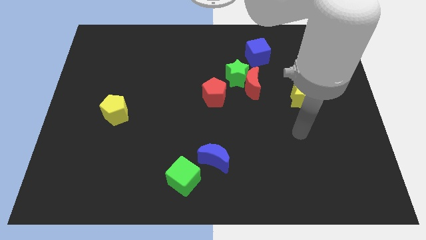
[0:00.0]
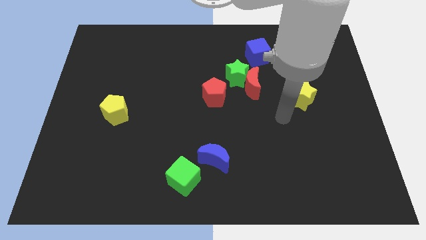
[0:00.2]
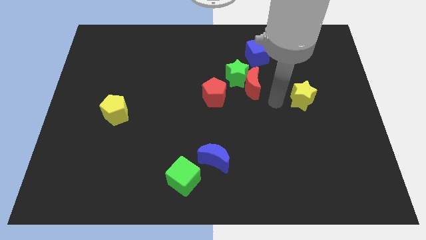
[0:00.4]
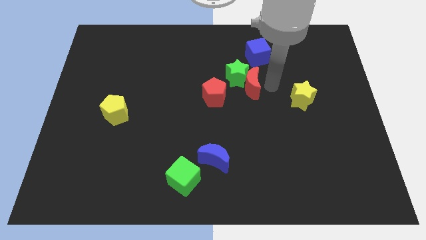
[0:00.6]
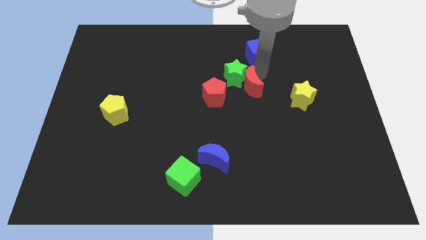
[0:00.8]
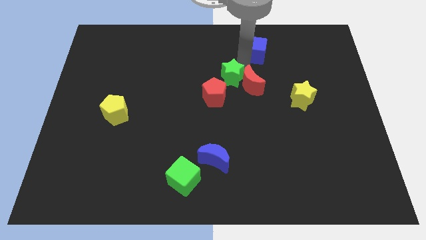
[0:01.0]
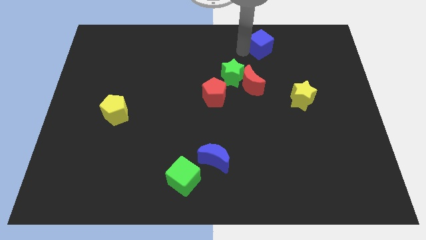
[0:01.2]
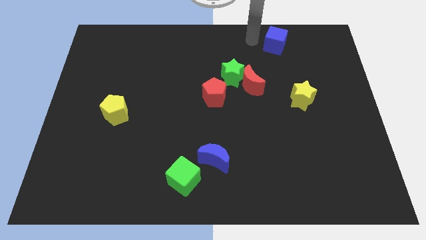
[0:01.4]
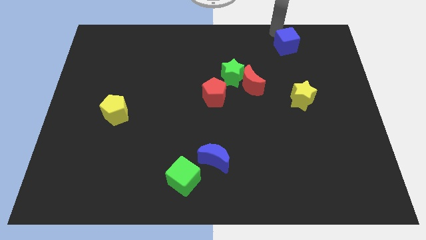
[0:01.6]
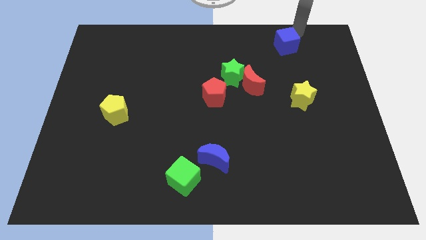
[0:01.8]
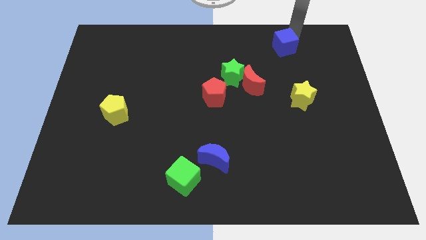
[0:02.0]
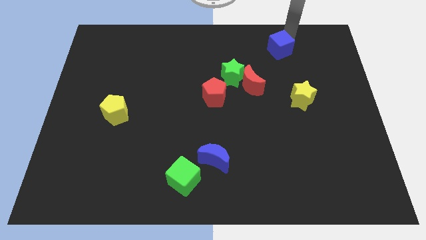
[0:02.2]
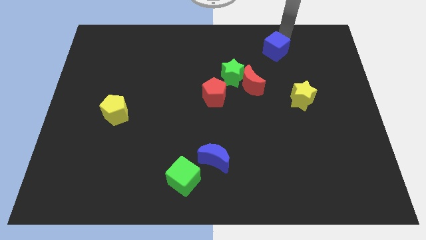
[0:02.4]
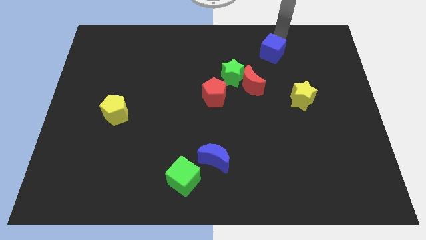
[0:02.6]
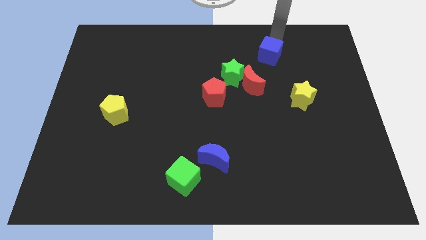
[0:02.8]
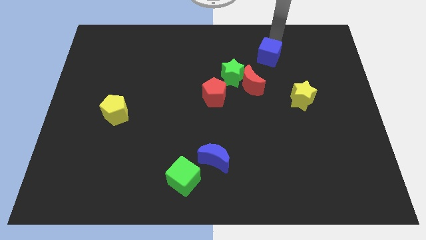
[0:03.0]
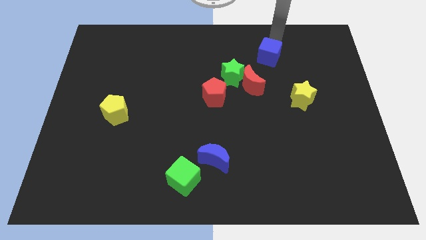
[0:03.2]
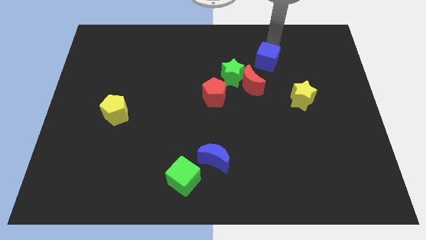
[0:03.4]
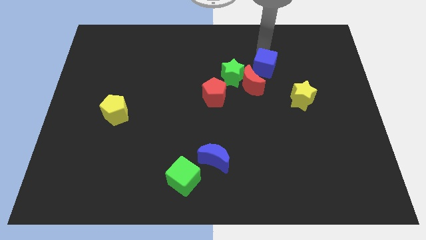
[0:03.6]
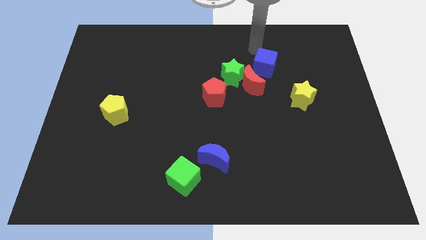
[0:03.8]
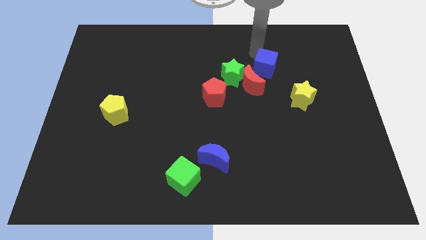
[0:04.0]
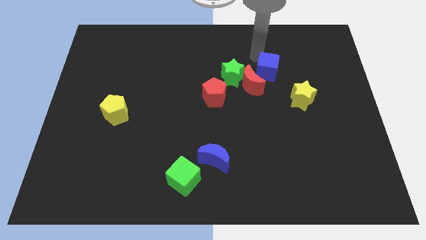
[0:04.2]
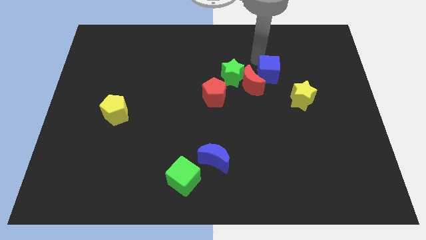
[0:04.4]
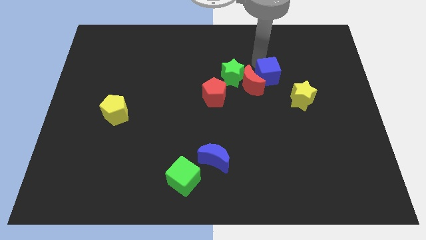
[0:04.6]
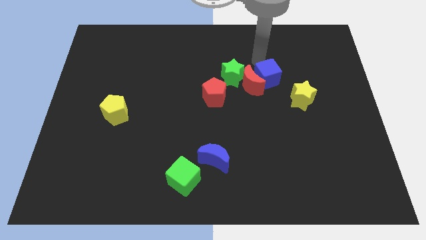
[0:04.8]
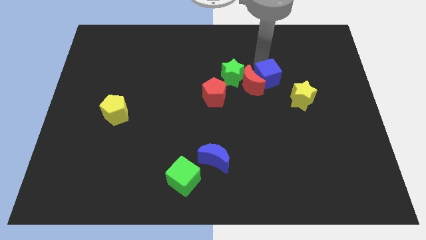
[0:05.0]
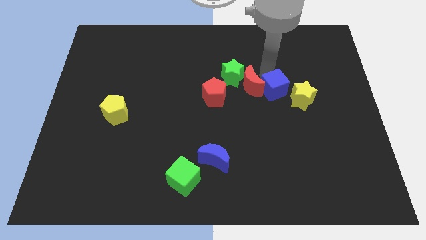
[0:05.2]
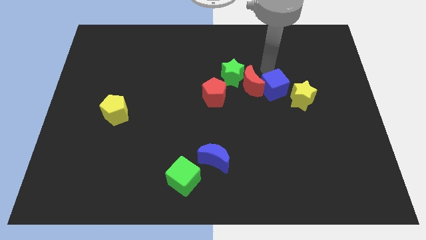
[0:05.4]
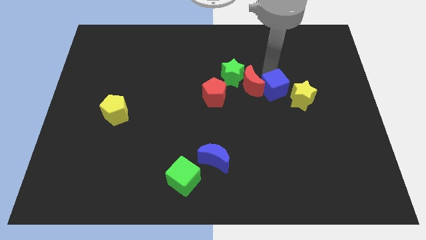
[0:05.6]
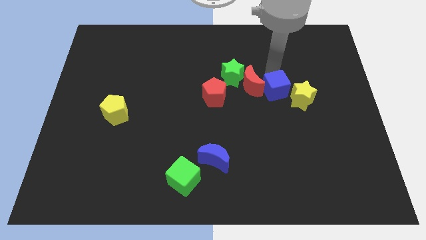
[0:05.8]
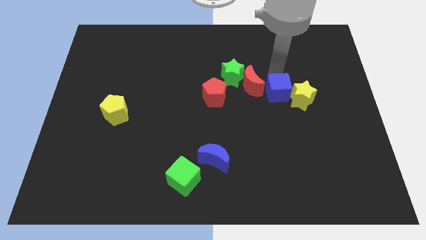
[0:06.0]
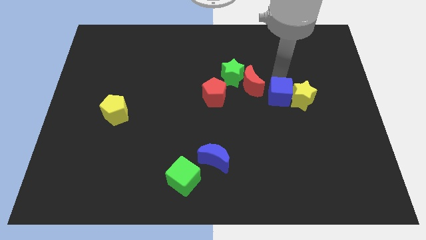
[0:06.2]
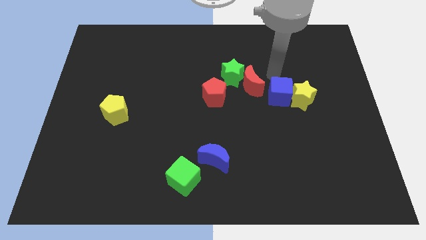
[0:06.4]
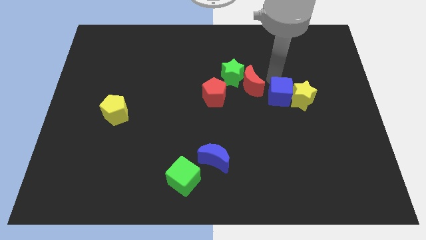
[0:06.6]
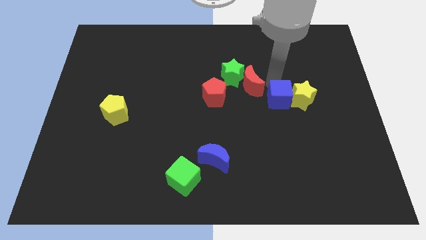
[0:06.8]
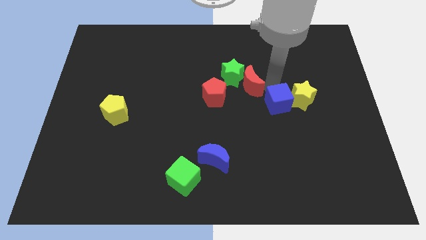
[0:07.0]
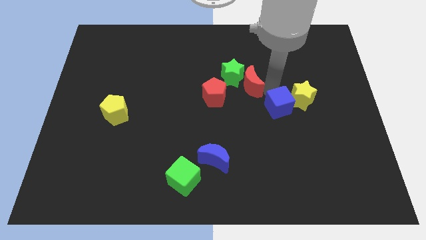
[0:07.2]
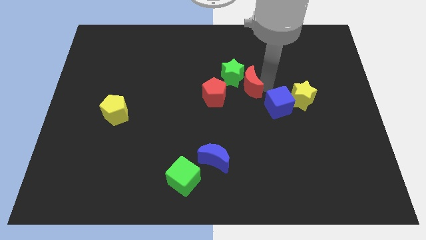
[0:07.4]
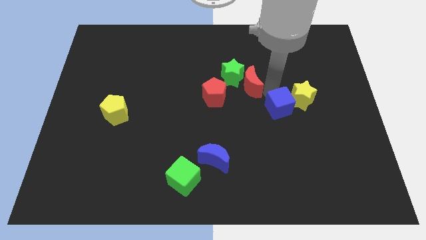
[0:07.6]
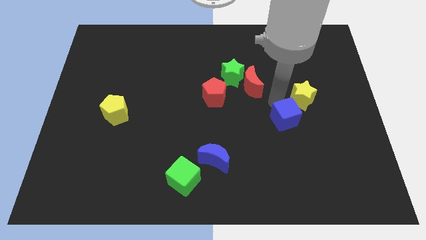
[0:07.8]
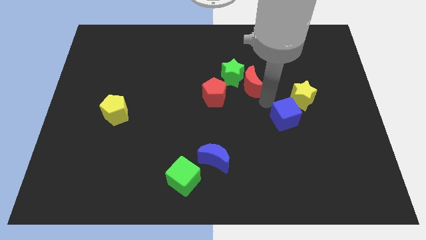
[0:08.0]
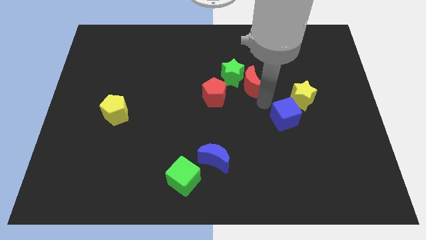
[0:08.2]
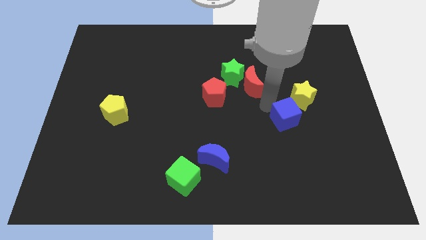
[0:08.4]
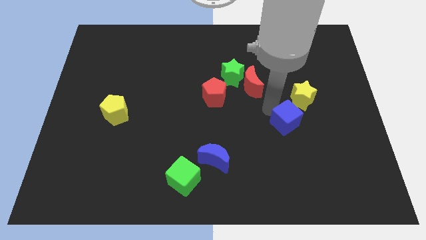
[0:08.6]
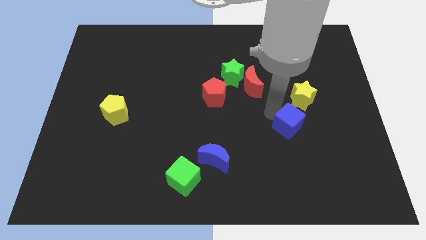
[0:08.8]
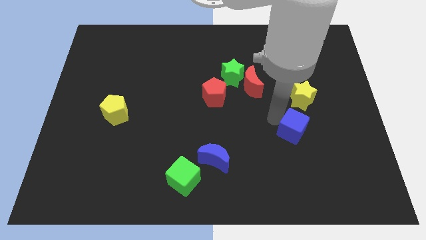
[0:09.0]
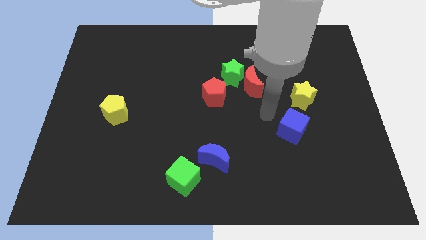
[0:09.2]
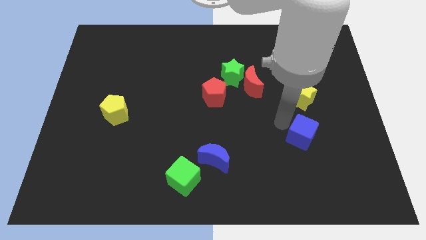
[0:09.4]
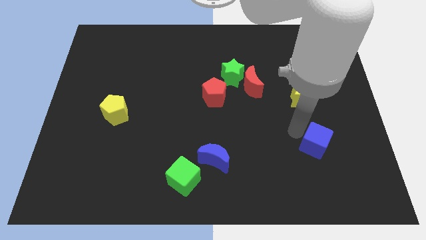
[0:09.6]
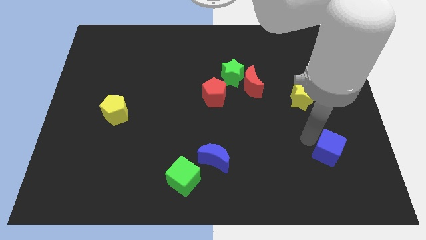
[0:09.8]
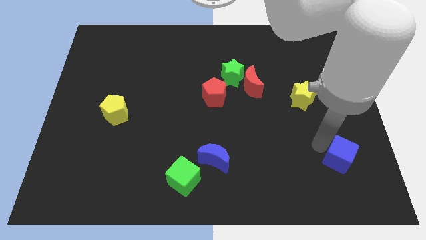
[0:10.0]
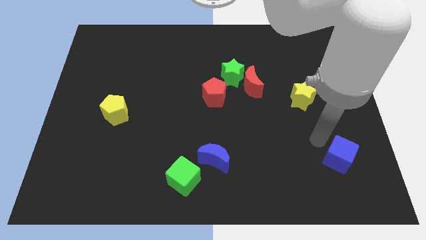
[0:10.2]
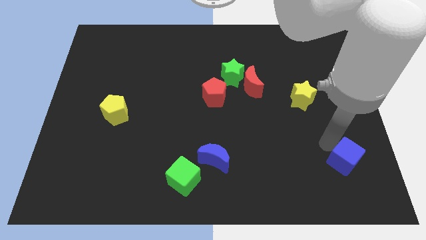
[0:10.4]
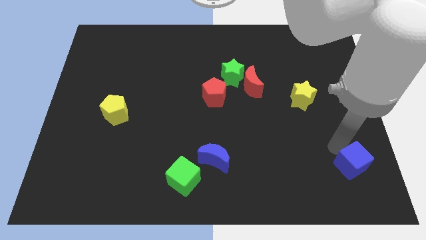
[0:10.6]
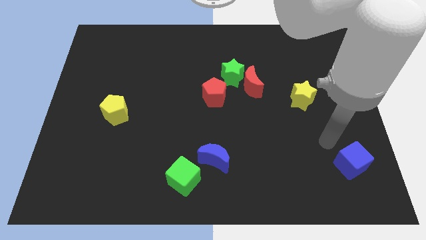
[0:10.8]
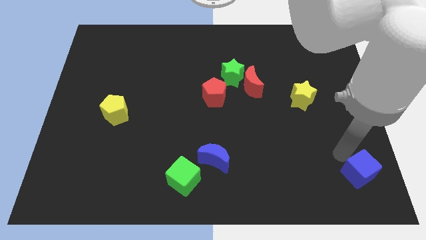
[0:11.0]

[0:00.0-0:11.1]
slide the blue cube to the bottom right of the board

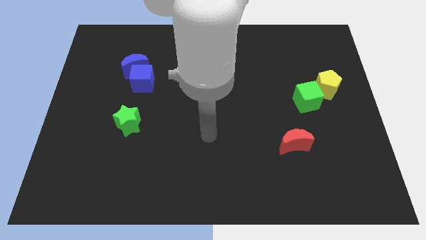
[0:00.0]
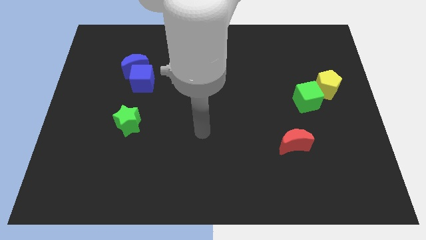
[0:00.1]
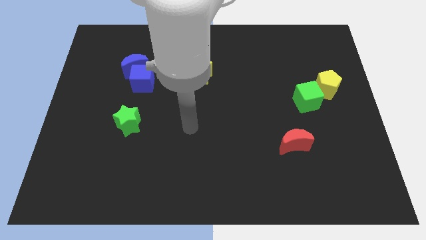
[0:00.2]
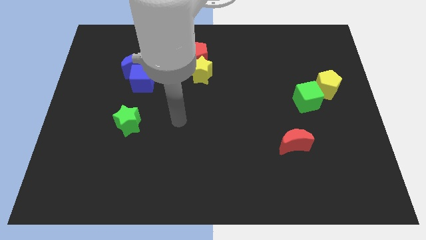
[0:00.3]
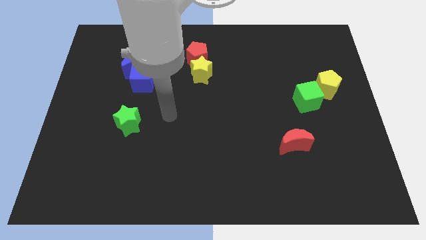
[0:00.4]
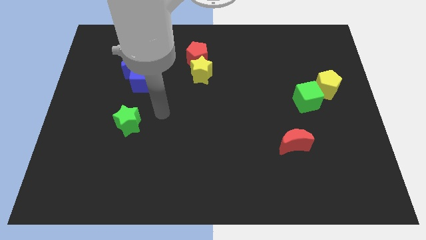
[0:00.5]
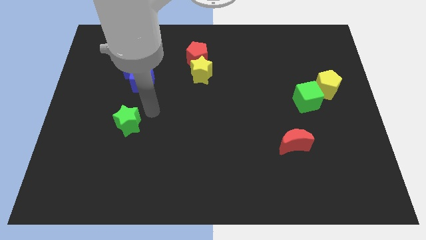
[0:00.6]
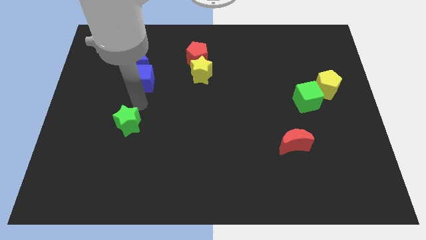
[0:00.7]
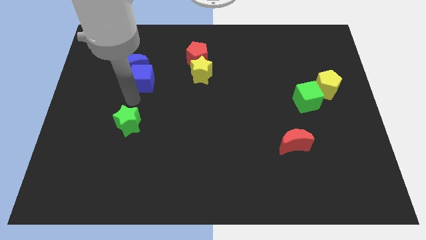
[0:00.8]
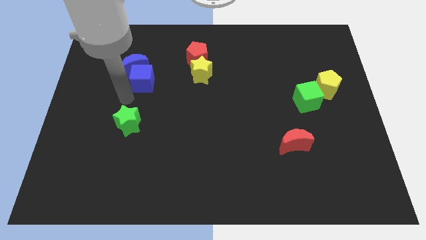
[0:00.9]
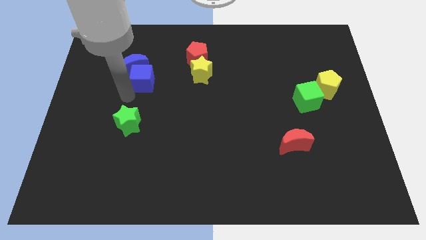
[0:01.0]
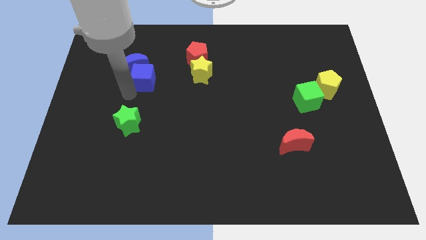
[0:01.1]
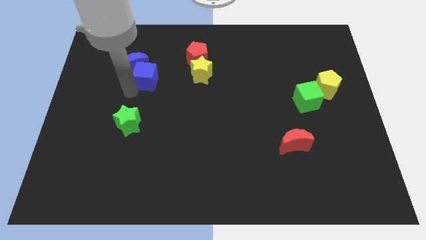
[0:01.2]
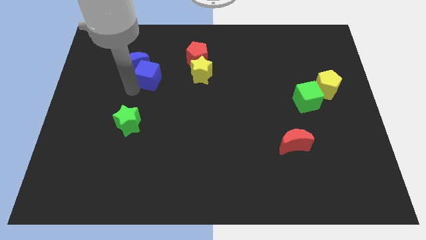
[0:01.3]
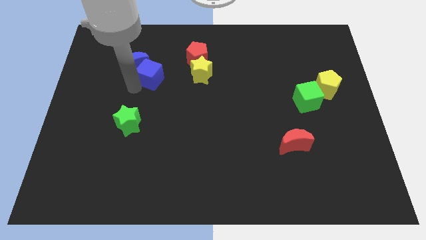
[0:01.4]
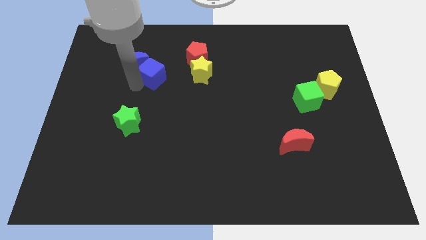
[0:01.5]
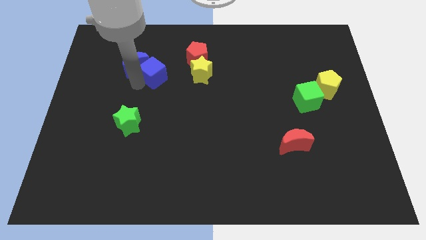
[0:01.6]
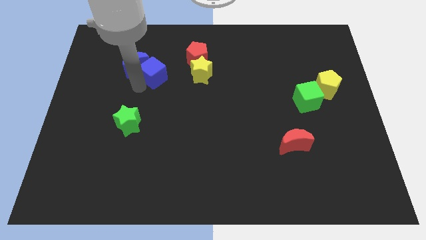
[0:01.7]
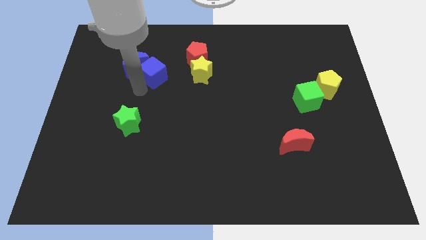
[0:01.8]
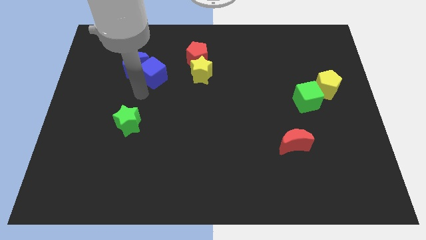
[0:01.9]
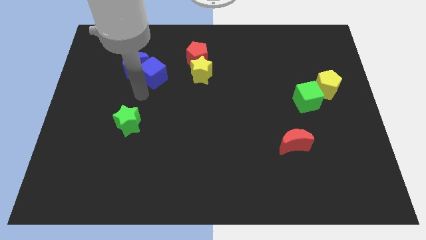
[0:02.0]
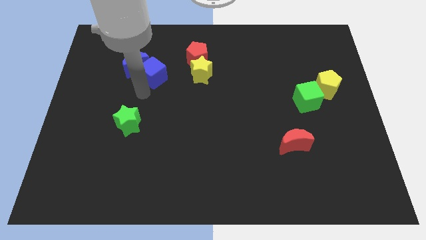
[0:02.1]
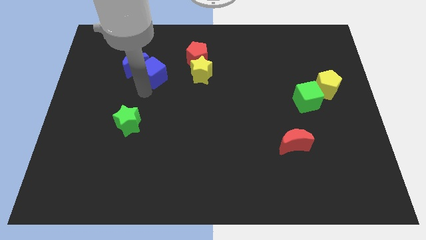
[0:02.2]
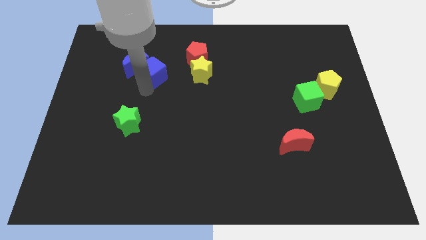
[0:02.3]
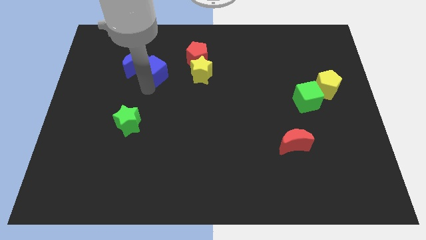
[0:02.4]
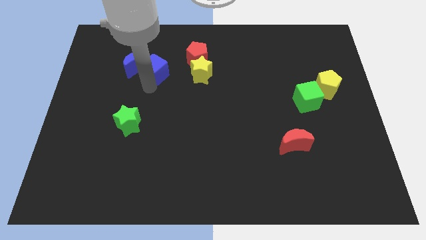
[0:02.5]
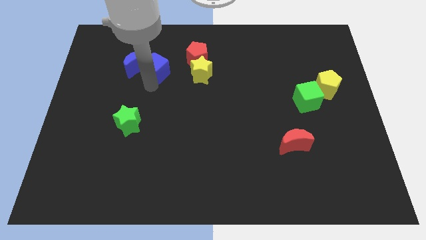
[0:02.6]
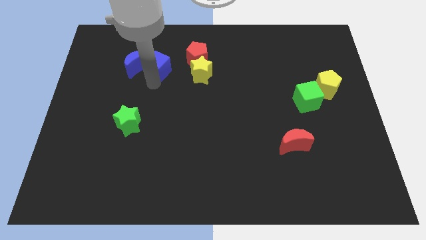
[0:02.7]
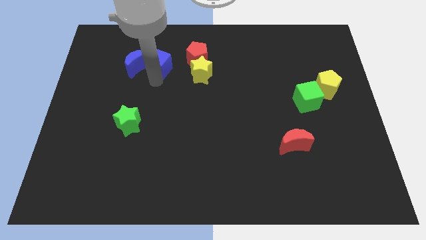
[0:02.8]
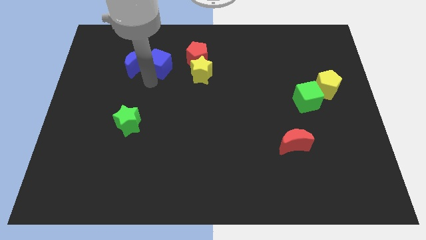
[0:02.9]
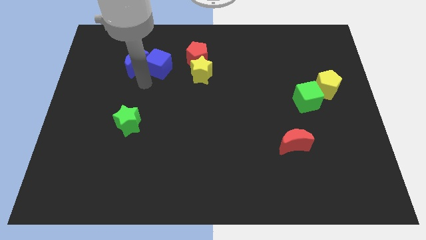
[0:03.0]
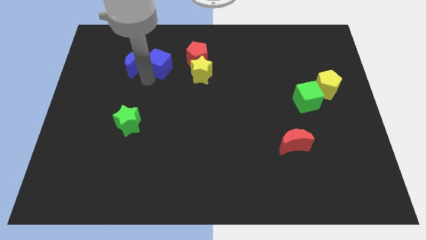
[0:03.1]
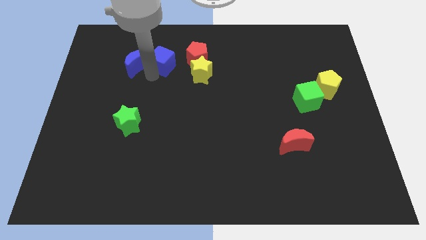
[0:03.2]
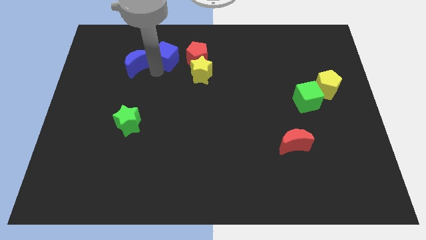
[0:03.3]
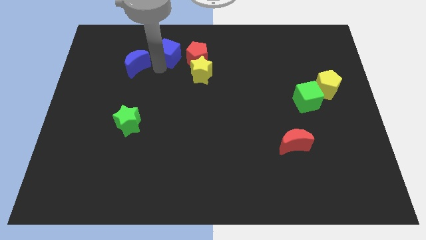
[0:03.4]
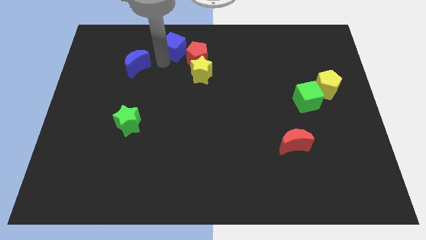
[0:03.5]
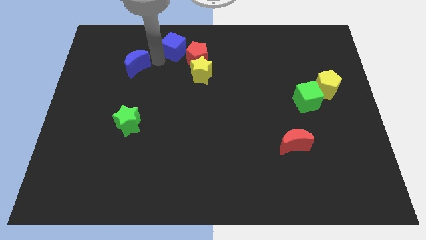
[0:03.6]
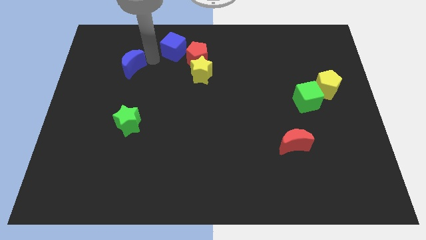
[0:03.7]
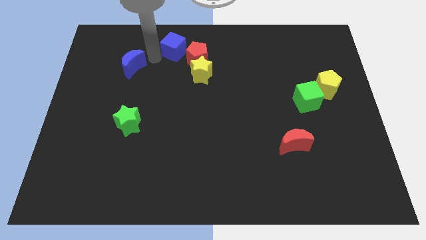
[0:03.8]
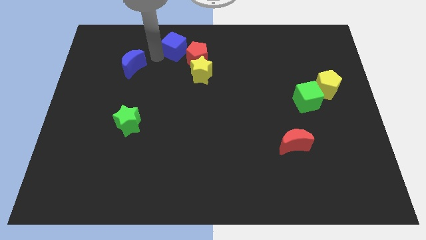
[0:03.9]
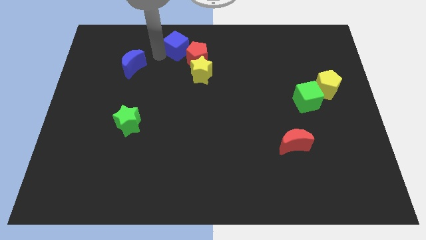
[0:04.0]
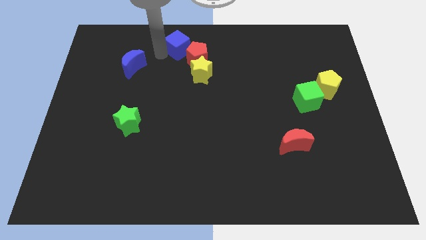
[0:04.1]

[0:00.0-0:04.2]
move the blue cube to the towards your base
